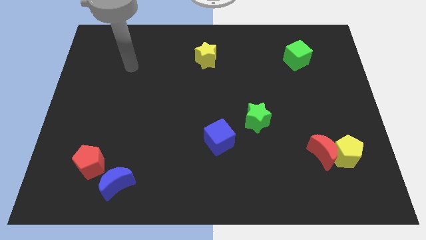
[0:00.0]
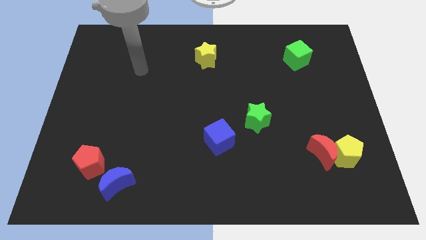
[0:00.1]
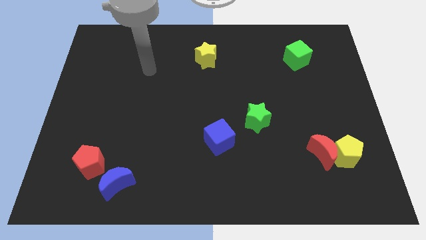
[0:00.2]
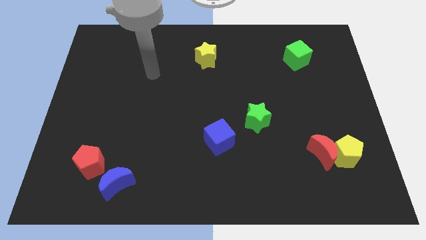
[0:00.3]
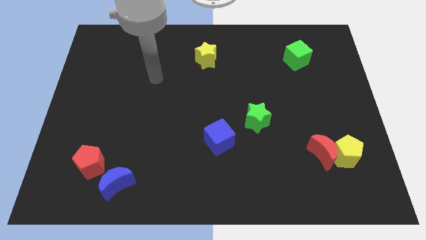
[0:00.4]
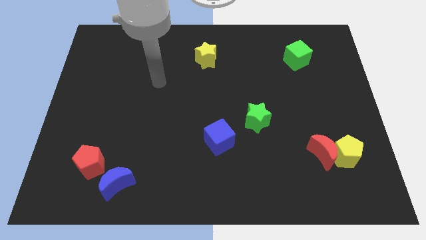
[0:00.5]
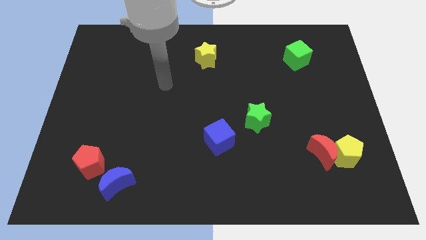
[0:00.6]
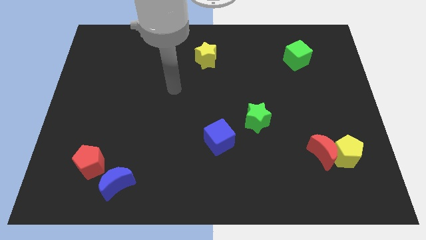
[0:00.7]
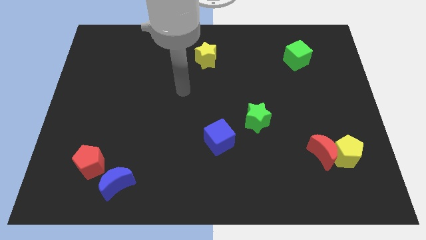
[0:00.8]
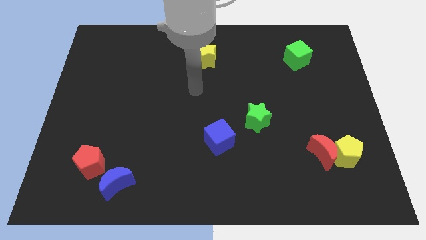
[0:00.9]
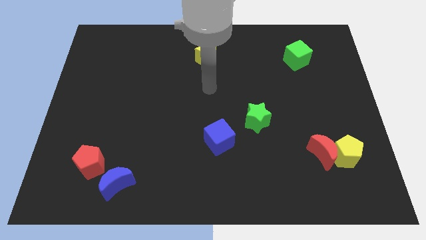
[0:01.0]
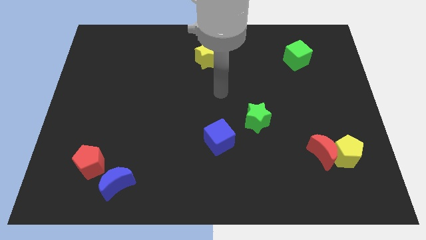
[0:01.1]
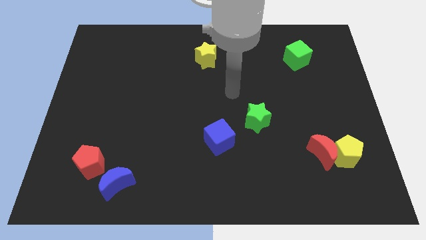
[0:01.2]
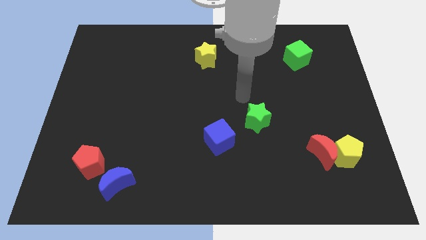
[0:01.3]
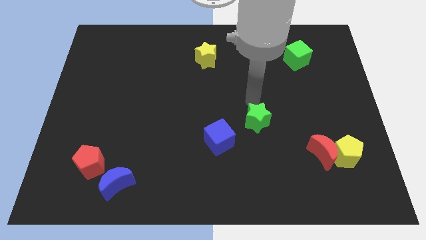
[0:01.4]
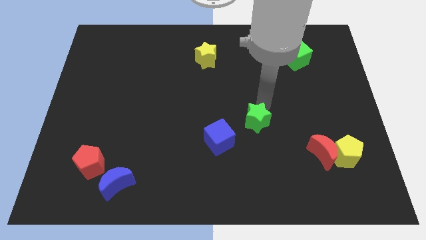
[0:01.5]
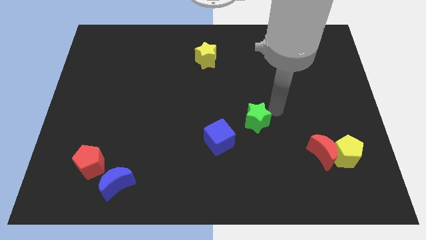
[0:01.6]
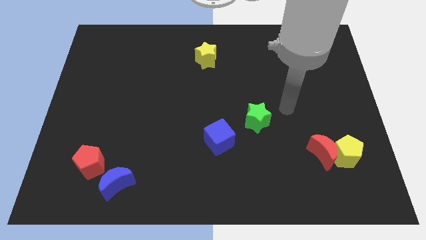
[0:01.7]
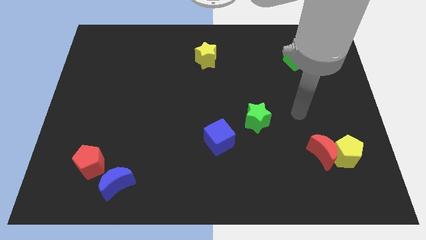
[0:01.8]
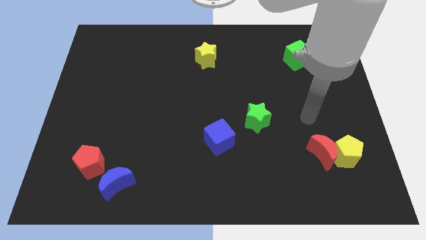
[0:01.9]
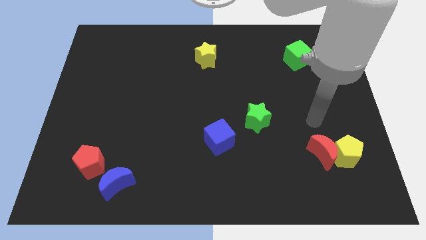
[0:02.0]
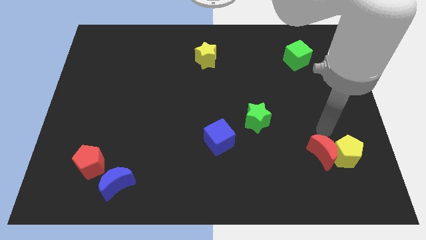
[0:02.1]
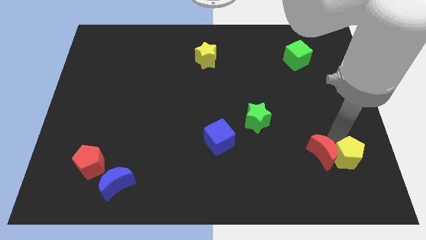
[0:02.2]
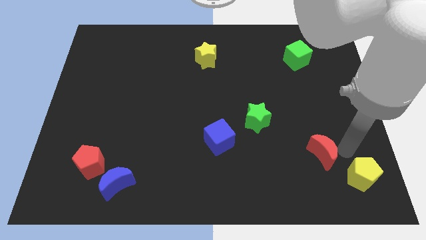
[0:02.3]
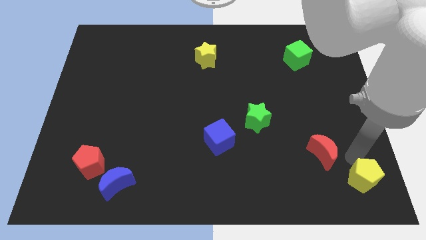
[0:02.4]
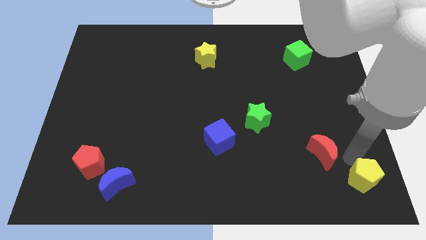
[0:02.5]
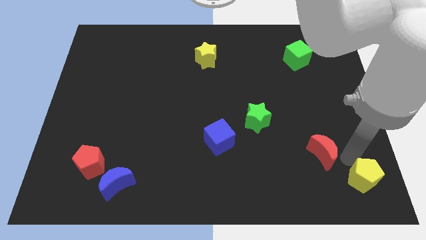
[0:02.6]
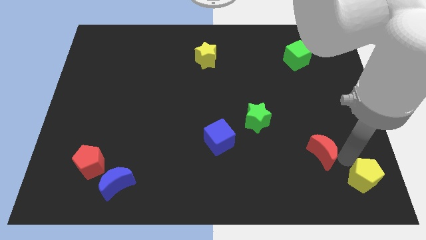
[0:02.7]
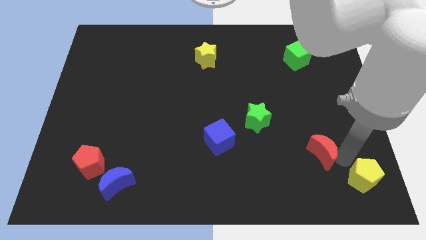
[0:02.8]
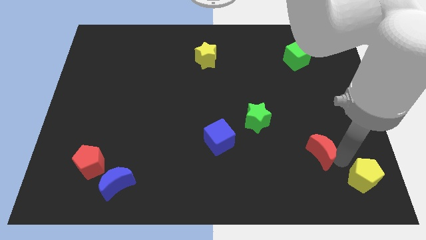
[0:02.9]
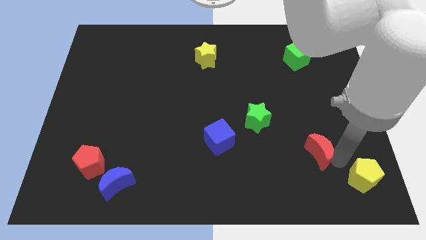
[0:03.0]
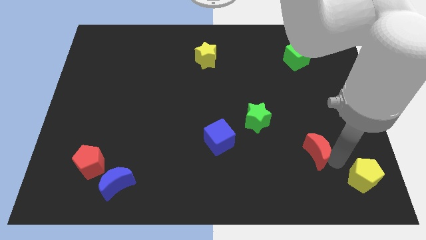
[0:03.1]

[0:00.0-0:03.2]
move the red moon away from the yellow pentagon

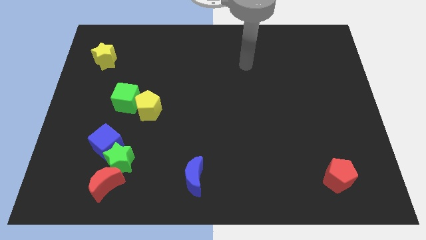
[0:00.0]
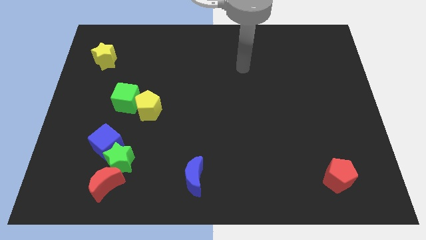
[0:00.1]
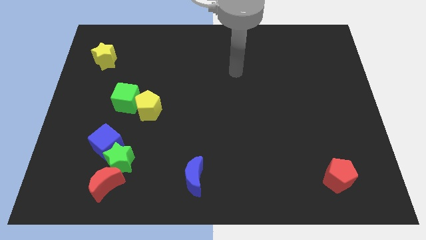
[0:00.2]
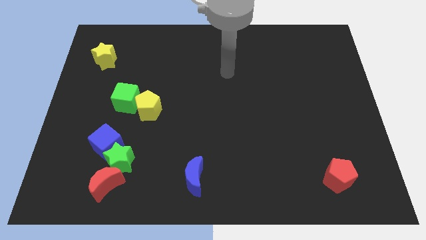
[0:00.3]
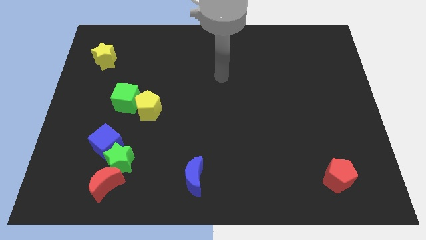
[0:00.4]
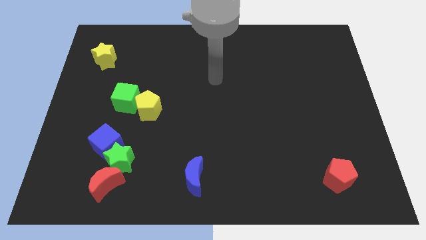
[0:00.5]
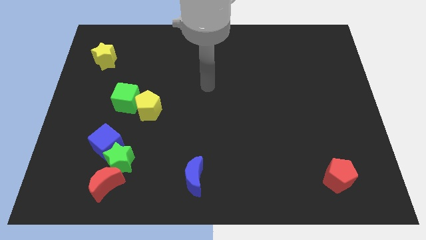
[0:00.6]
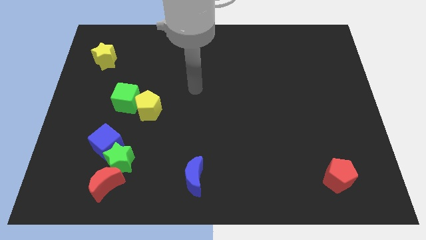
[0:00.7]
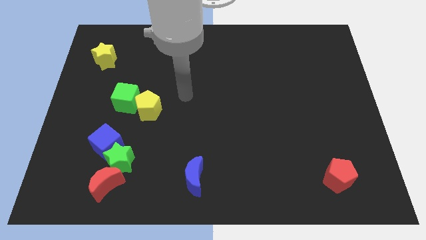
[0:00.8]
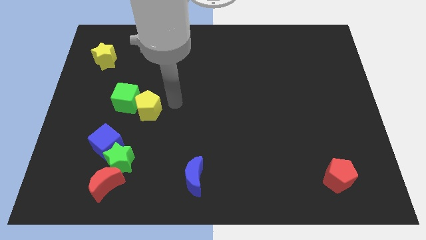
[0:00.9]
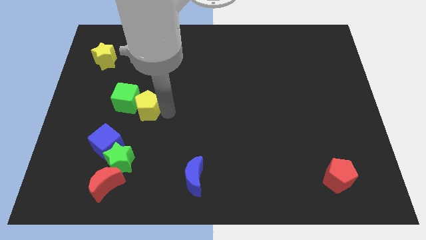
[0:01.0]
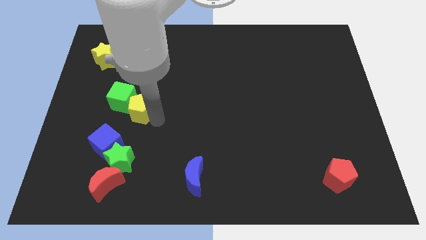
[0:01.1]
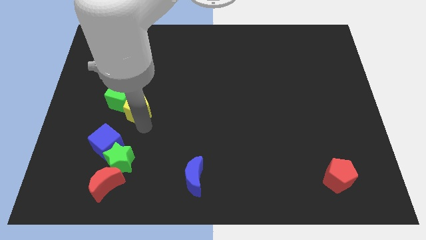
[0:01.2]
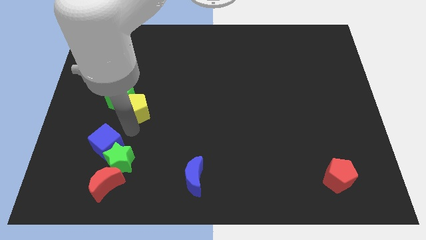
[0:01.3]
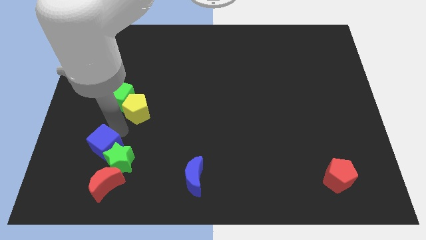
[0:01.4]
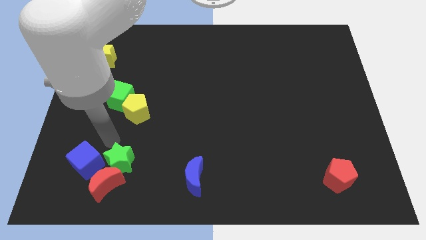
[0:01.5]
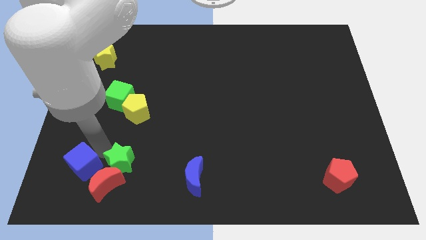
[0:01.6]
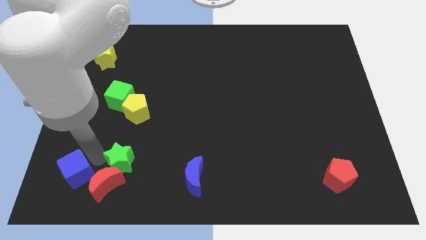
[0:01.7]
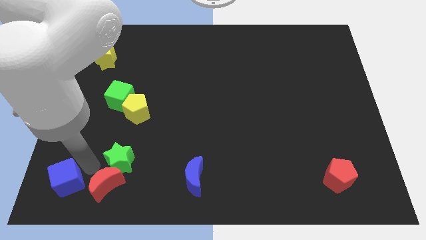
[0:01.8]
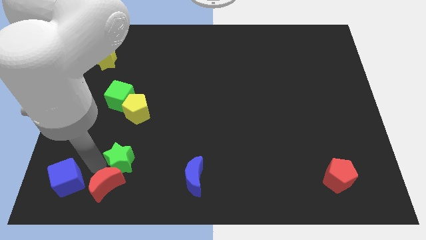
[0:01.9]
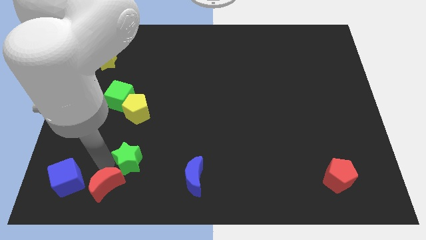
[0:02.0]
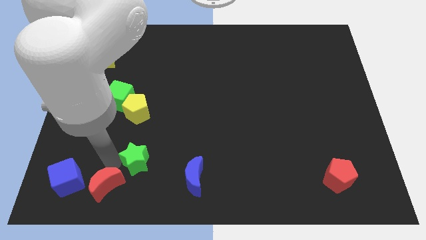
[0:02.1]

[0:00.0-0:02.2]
pull the green star apart from the blue cube and red moon

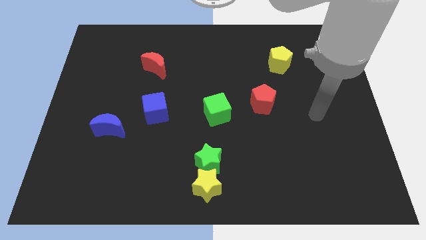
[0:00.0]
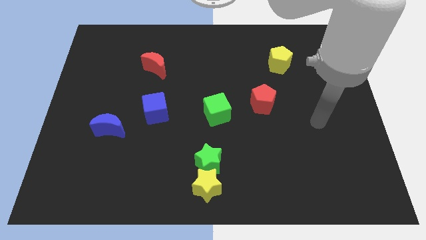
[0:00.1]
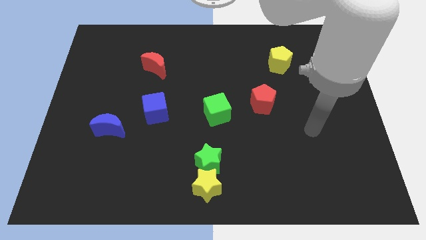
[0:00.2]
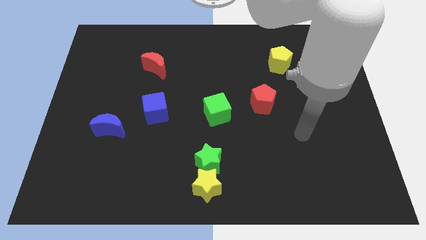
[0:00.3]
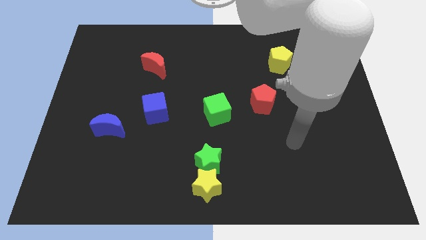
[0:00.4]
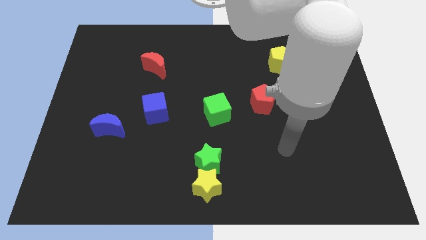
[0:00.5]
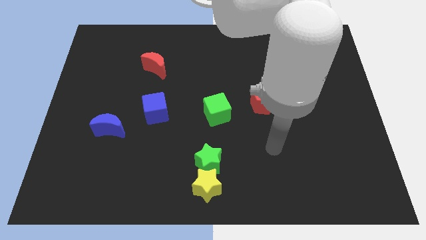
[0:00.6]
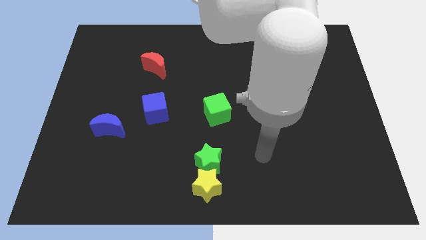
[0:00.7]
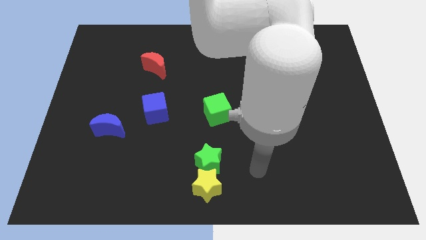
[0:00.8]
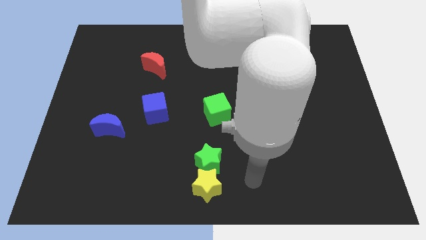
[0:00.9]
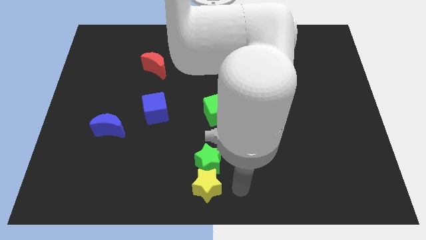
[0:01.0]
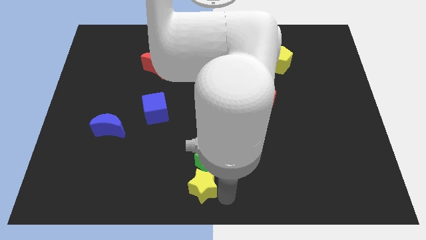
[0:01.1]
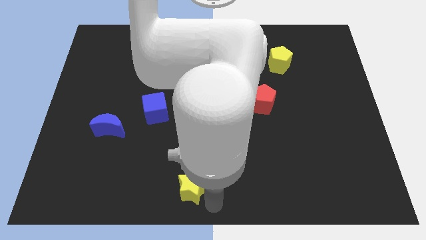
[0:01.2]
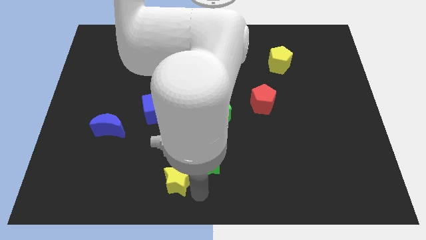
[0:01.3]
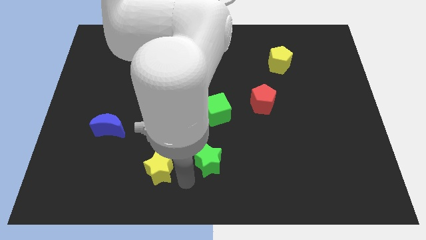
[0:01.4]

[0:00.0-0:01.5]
pull the green star apart from the yellow star

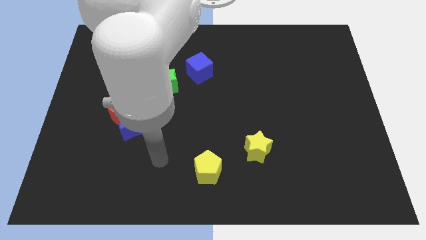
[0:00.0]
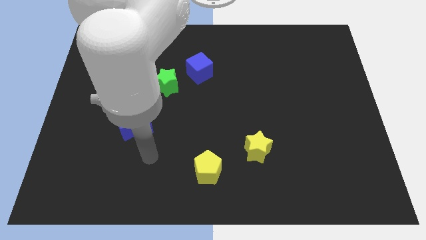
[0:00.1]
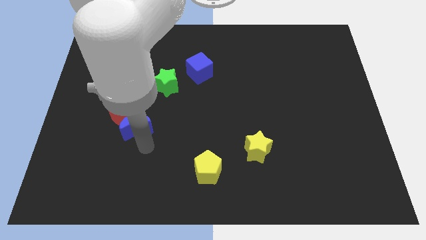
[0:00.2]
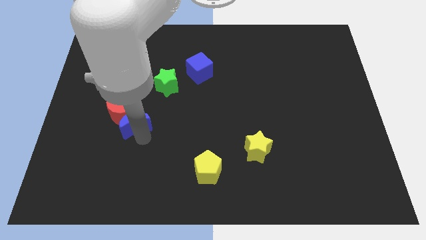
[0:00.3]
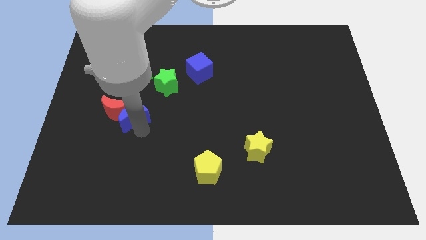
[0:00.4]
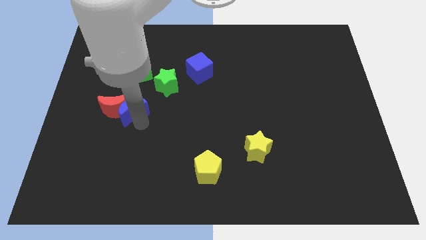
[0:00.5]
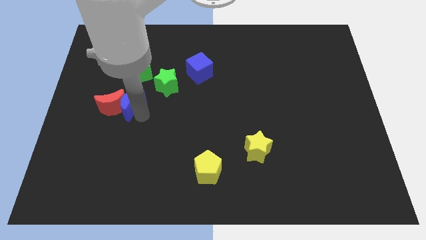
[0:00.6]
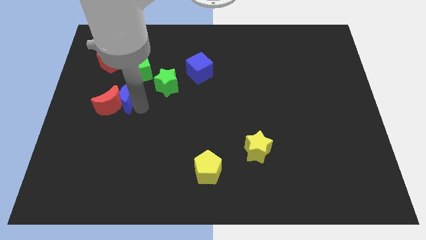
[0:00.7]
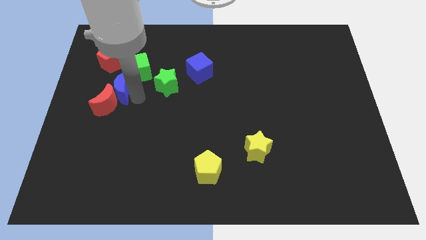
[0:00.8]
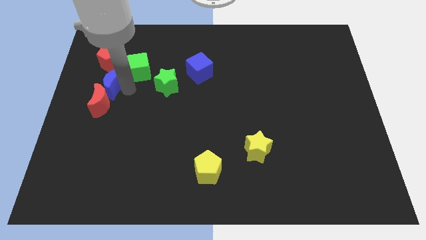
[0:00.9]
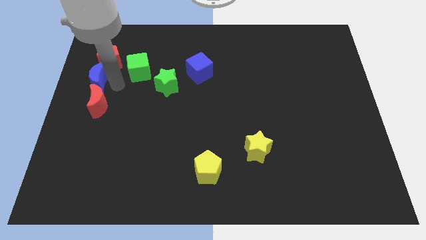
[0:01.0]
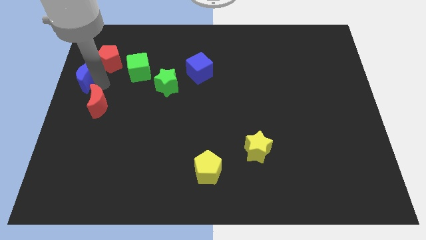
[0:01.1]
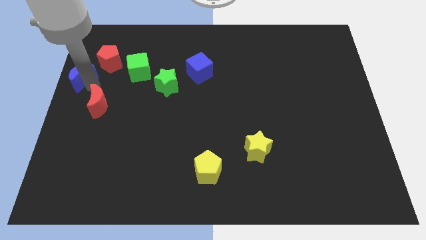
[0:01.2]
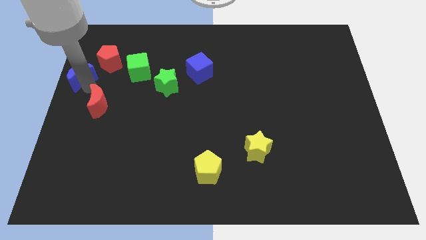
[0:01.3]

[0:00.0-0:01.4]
move the red moon away from the blue moon

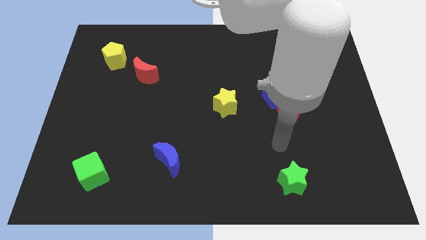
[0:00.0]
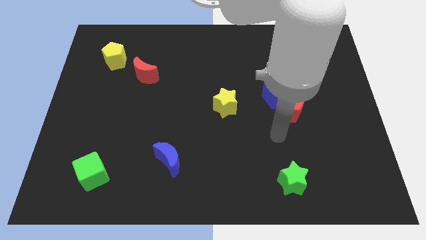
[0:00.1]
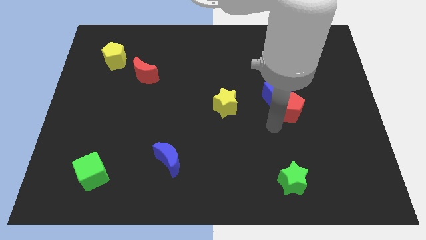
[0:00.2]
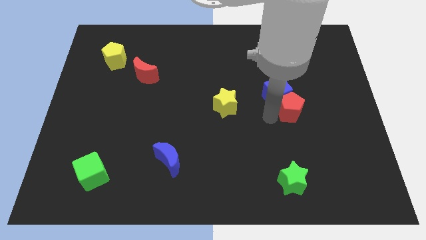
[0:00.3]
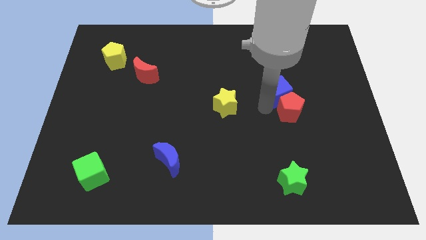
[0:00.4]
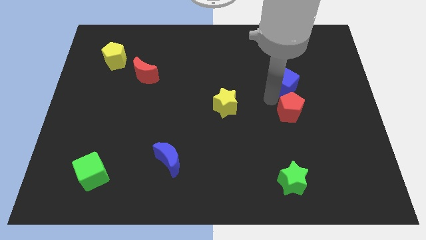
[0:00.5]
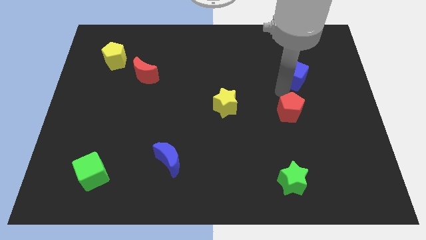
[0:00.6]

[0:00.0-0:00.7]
pull the red pentagon apart from the blue cube

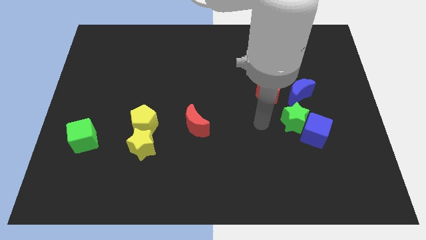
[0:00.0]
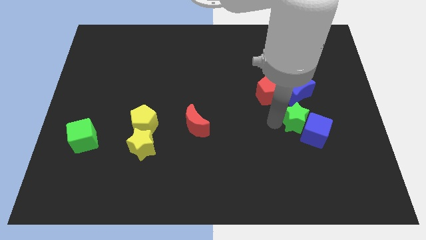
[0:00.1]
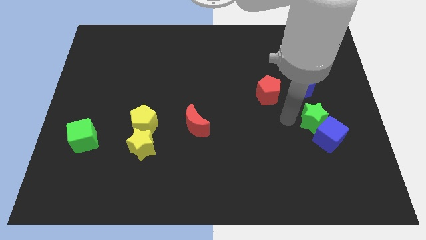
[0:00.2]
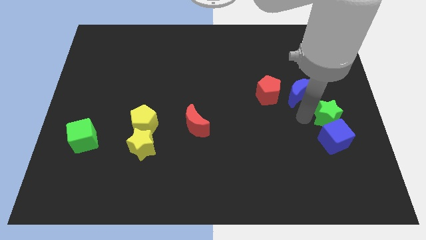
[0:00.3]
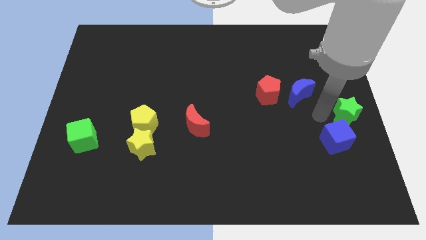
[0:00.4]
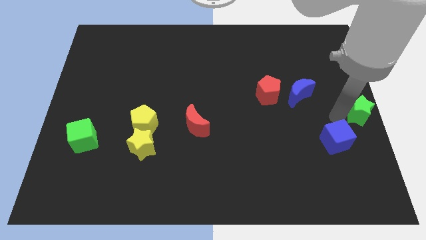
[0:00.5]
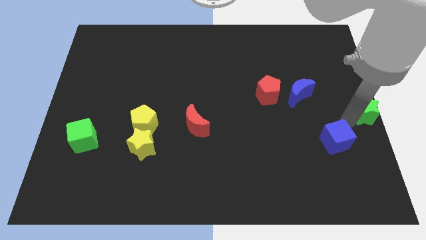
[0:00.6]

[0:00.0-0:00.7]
pull the blue cube apart from the green star
